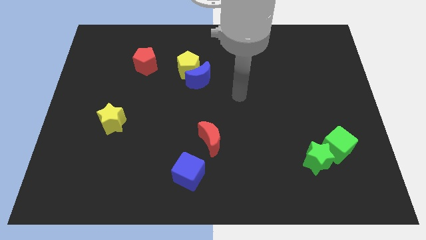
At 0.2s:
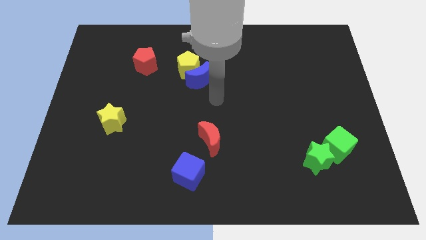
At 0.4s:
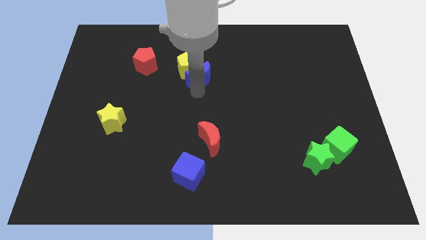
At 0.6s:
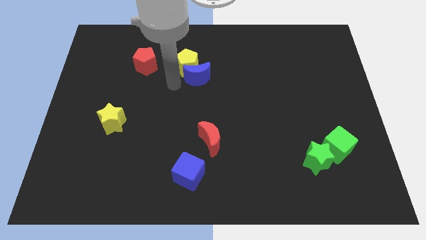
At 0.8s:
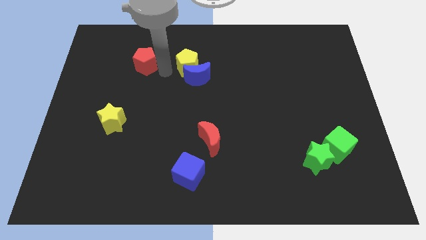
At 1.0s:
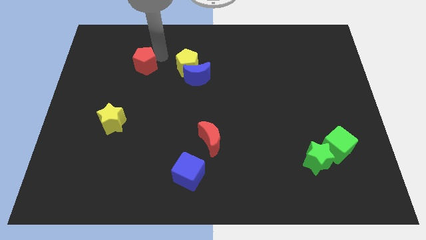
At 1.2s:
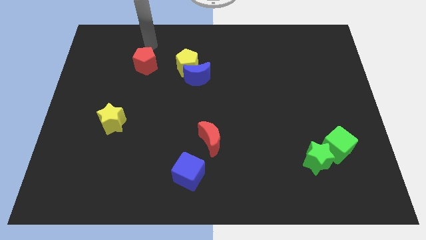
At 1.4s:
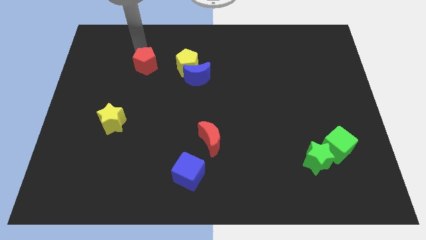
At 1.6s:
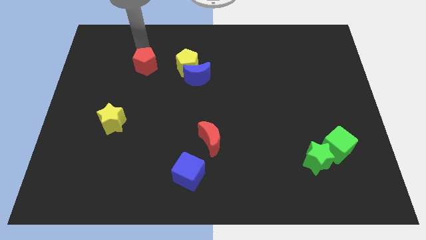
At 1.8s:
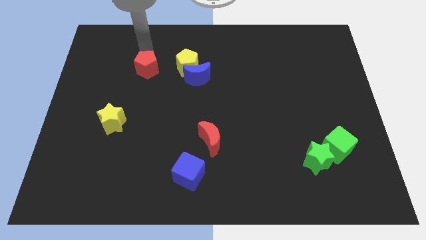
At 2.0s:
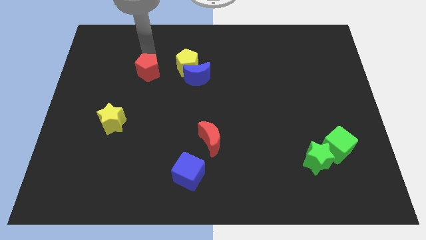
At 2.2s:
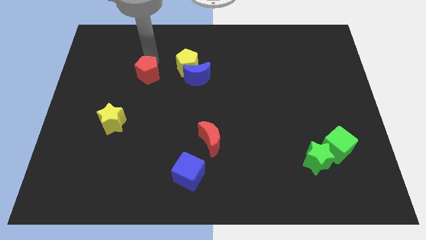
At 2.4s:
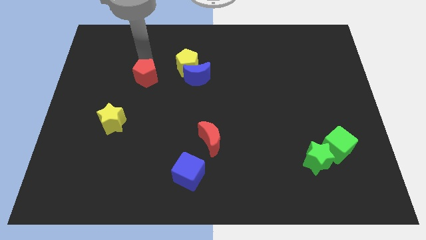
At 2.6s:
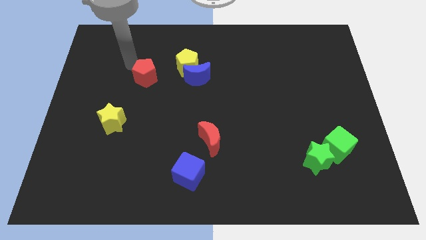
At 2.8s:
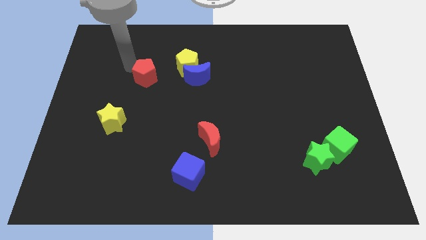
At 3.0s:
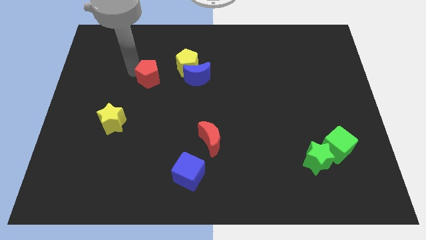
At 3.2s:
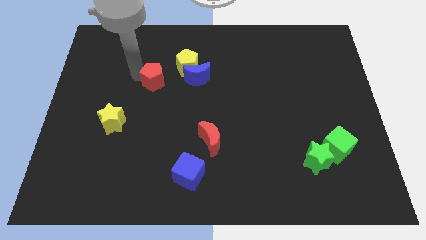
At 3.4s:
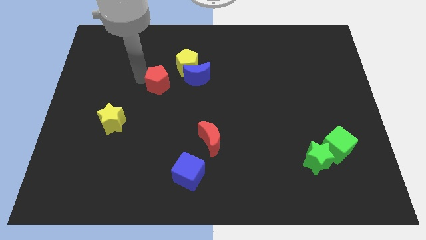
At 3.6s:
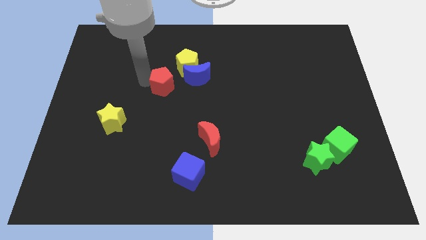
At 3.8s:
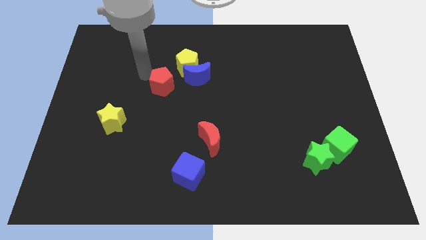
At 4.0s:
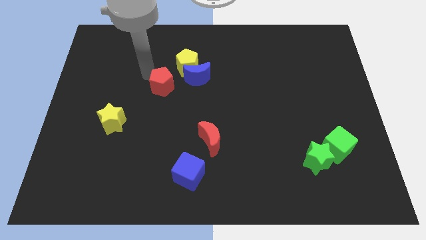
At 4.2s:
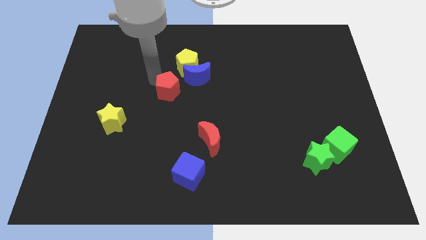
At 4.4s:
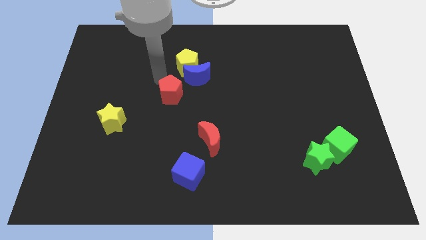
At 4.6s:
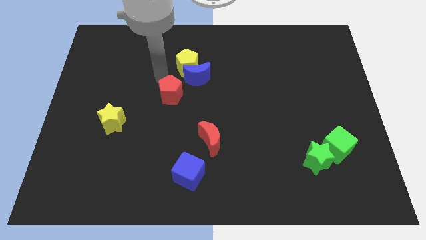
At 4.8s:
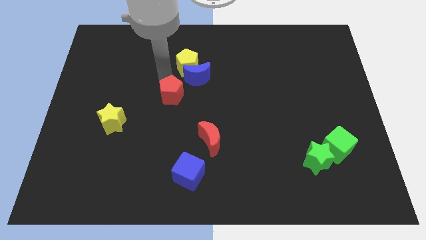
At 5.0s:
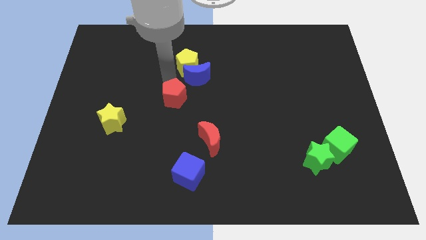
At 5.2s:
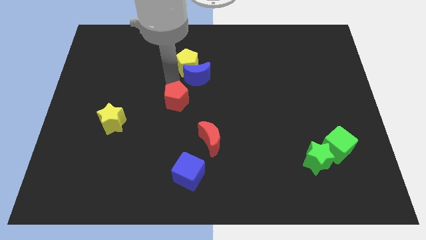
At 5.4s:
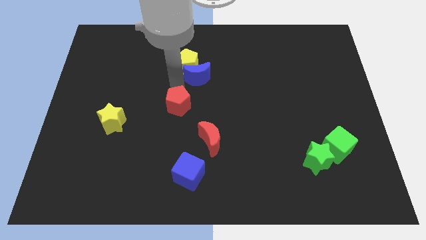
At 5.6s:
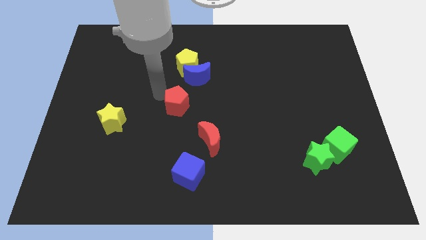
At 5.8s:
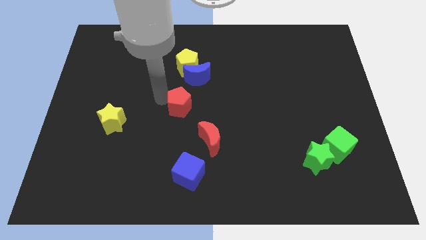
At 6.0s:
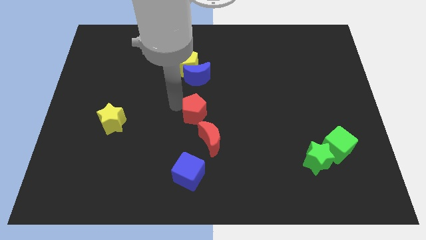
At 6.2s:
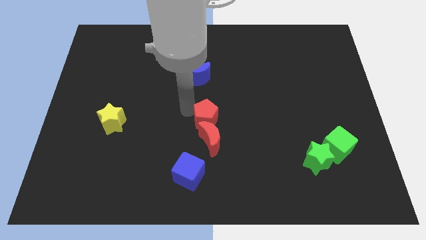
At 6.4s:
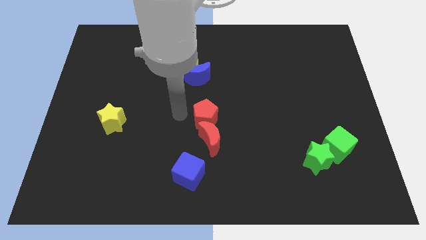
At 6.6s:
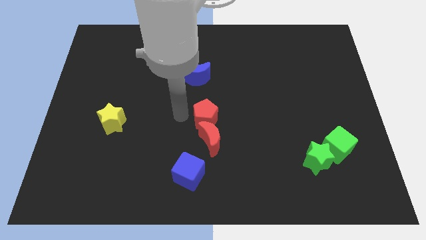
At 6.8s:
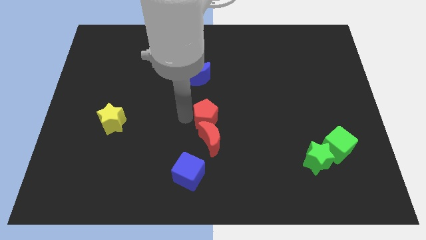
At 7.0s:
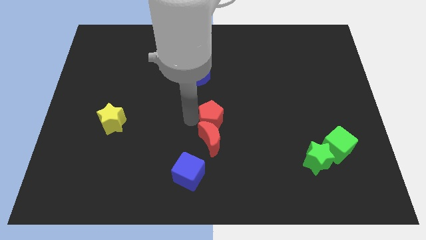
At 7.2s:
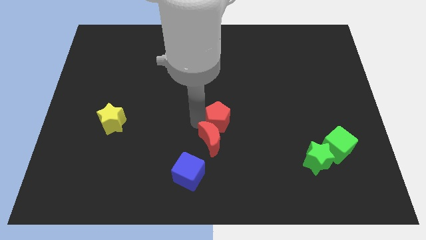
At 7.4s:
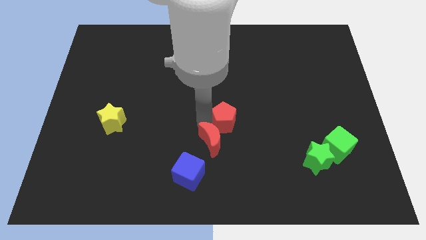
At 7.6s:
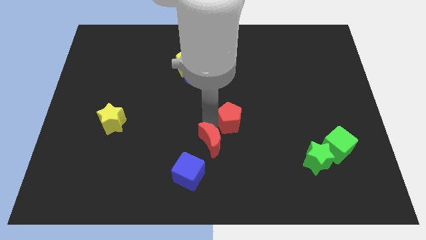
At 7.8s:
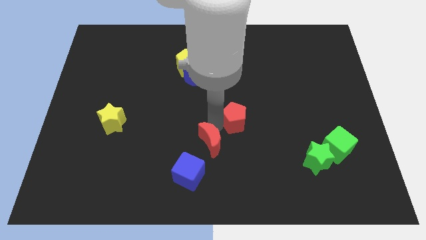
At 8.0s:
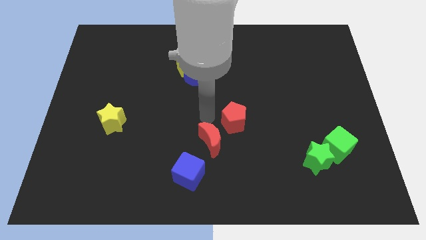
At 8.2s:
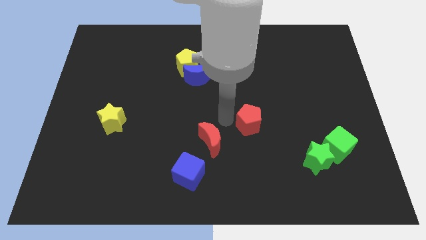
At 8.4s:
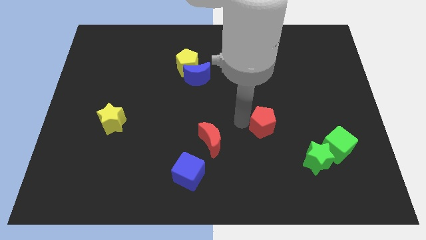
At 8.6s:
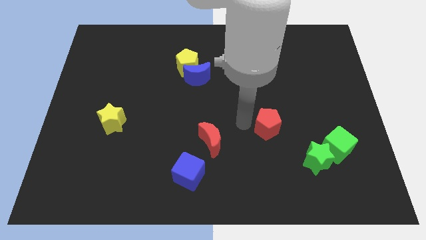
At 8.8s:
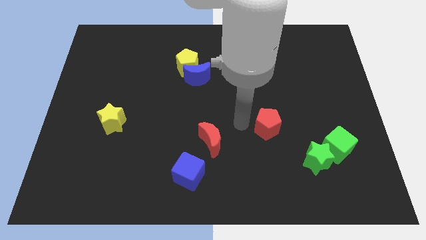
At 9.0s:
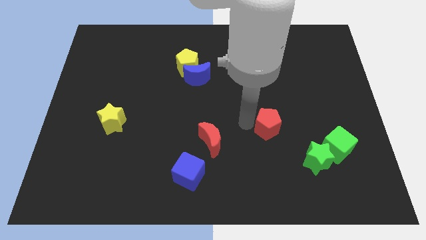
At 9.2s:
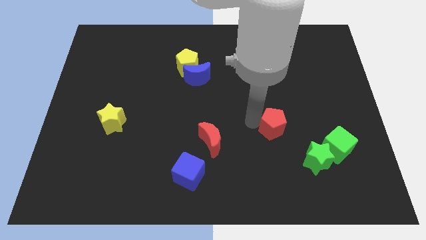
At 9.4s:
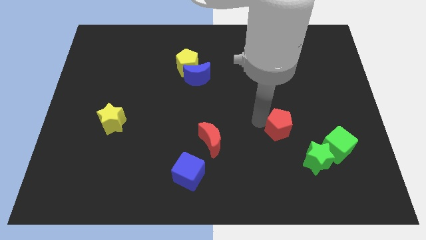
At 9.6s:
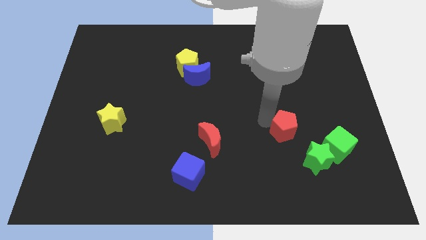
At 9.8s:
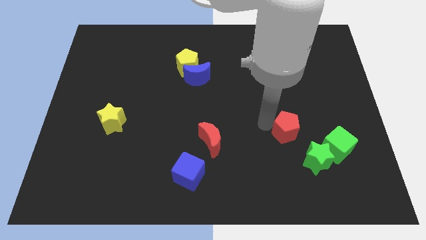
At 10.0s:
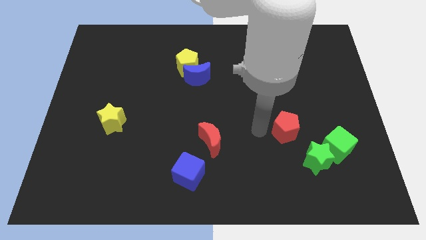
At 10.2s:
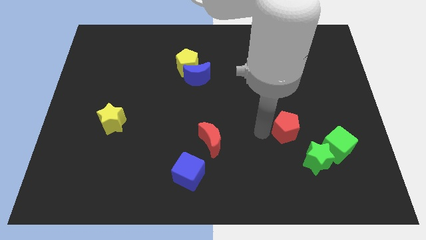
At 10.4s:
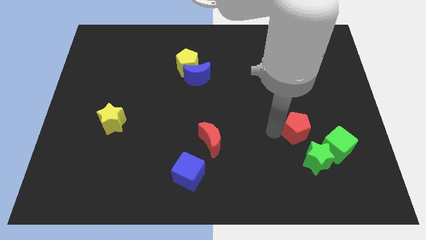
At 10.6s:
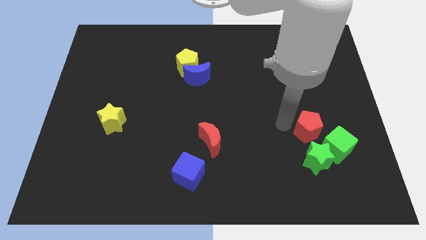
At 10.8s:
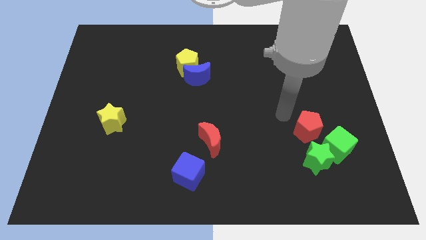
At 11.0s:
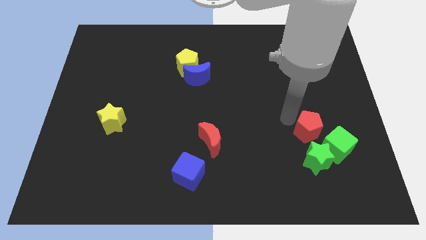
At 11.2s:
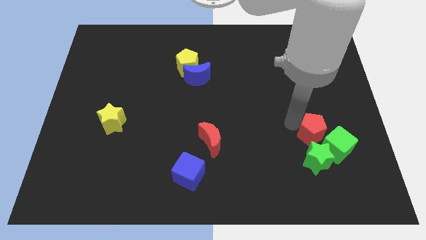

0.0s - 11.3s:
slide the red pentagon towards the green cube

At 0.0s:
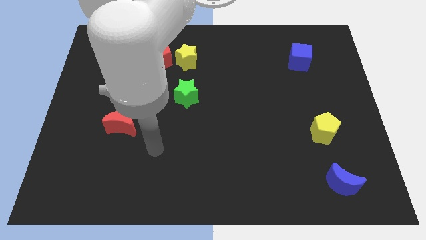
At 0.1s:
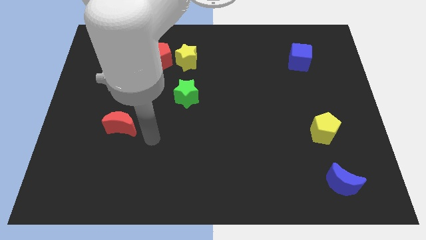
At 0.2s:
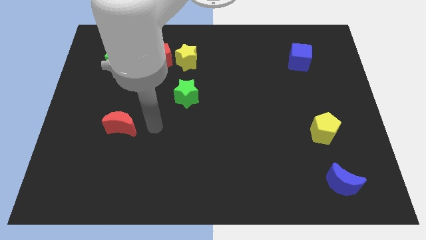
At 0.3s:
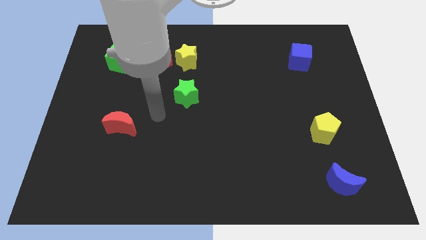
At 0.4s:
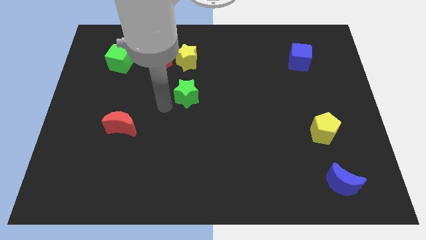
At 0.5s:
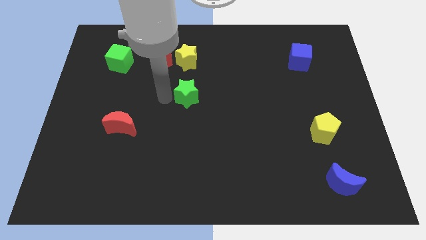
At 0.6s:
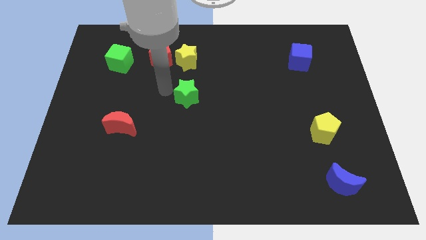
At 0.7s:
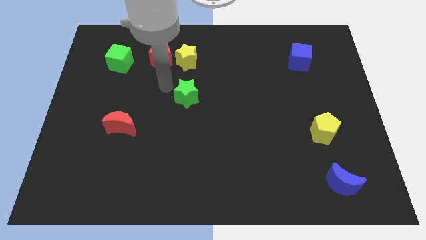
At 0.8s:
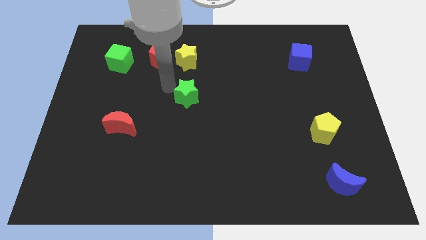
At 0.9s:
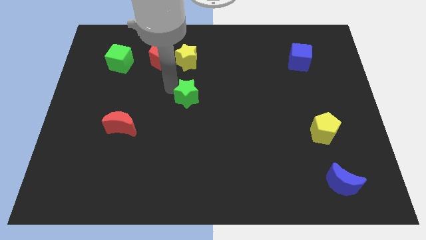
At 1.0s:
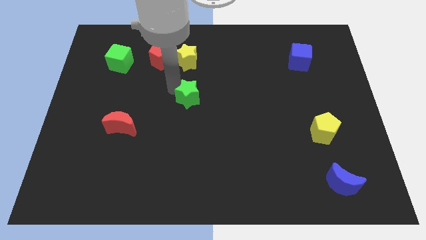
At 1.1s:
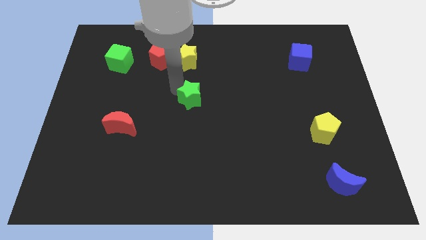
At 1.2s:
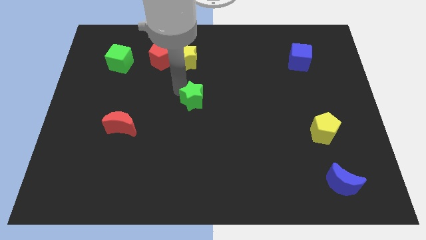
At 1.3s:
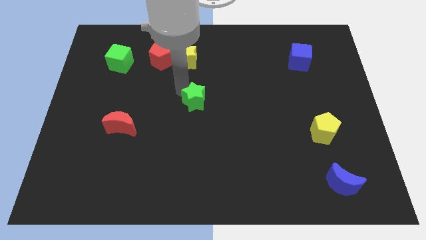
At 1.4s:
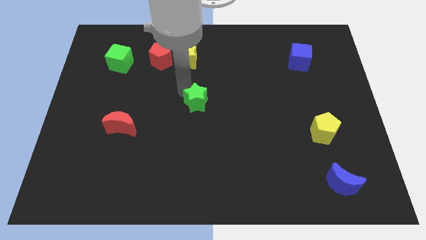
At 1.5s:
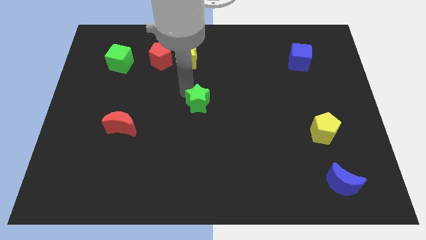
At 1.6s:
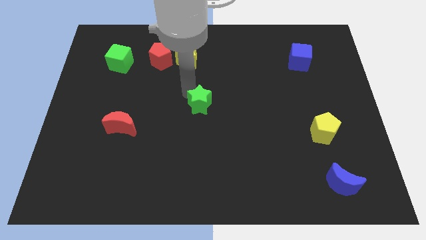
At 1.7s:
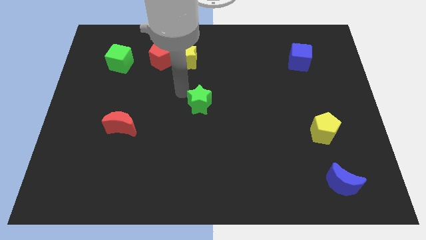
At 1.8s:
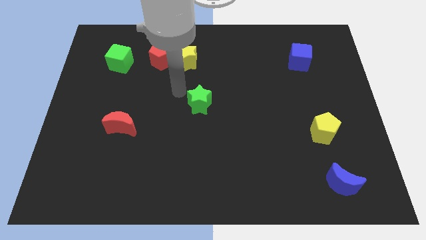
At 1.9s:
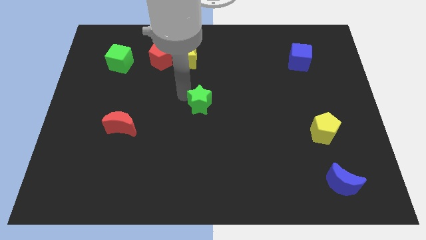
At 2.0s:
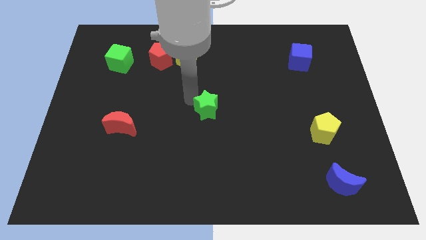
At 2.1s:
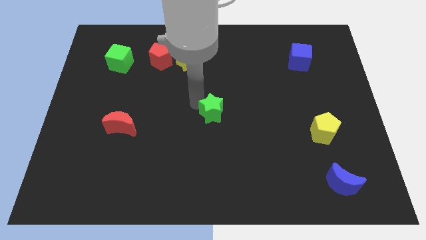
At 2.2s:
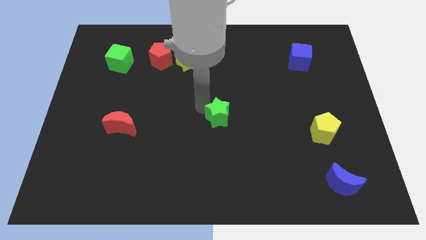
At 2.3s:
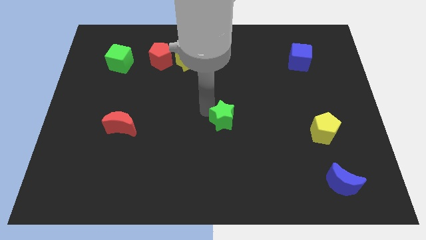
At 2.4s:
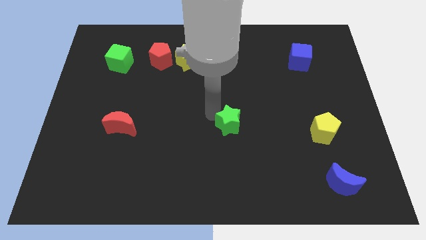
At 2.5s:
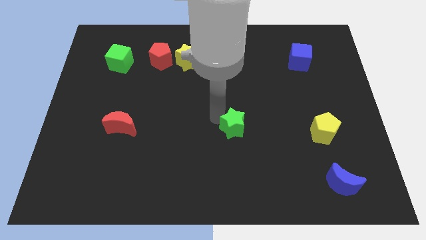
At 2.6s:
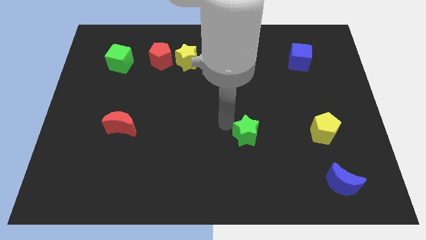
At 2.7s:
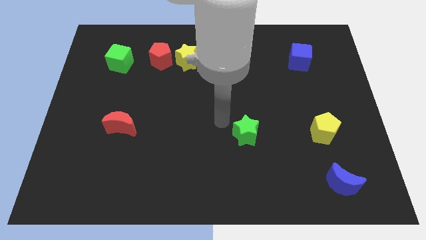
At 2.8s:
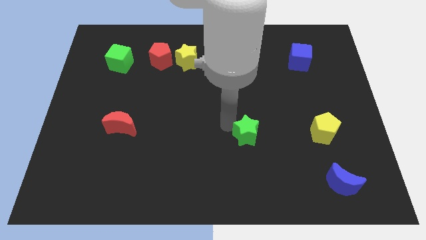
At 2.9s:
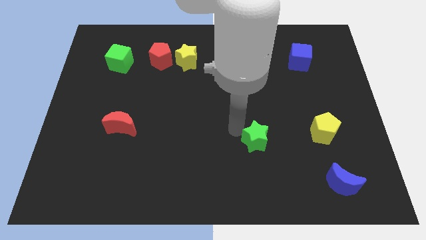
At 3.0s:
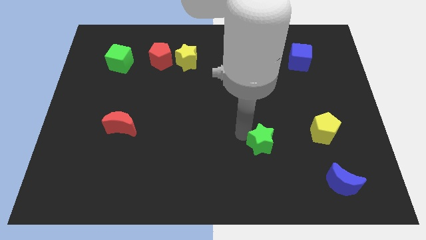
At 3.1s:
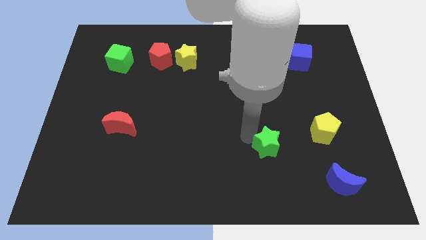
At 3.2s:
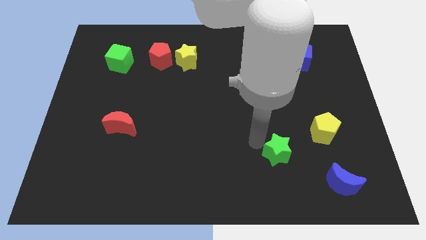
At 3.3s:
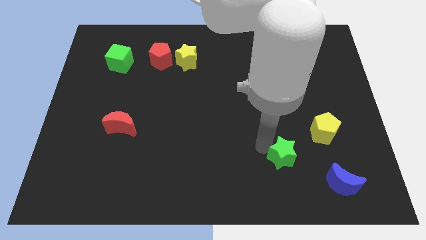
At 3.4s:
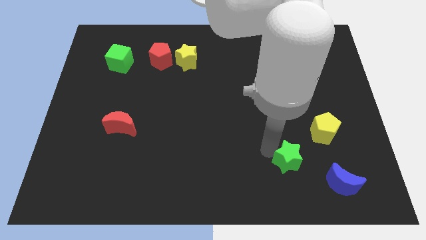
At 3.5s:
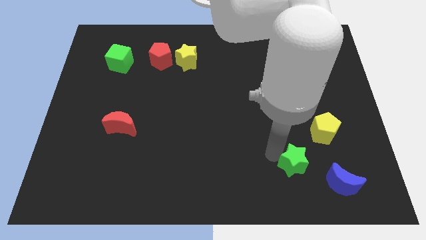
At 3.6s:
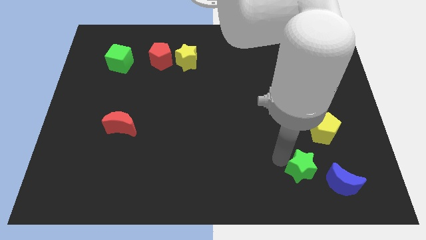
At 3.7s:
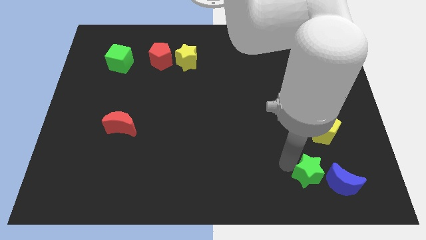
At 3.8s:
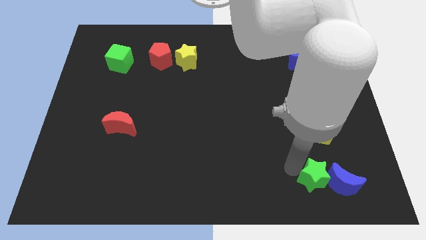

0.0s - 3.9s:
move the green star close to the blue moon
